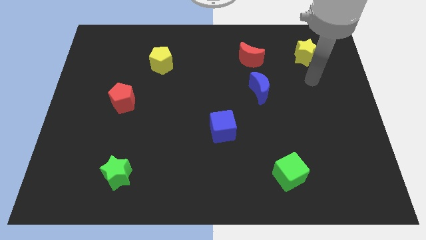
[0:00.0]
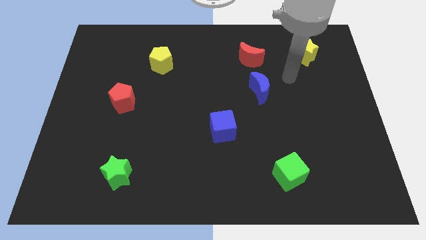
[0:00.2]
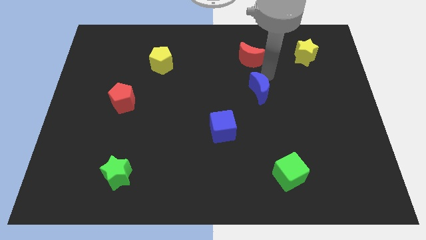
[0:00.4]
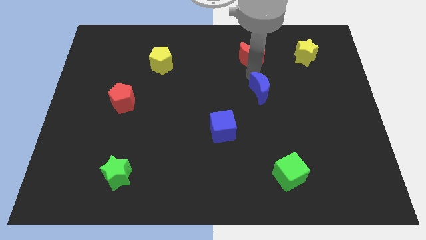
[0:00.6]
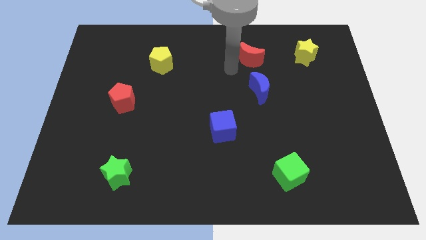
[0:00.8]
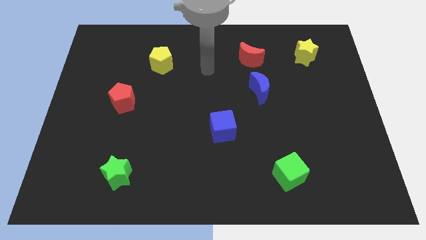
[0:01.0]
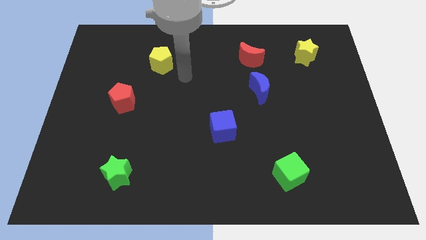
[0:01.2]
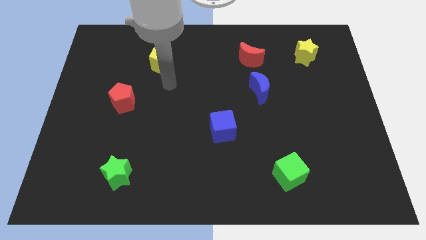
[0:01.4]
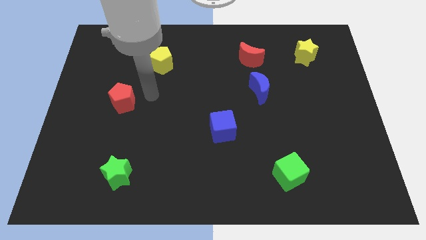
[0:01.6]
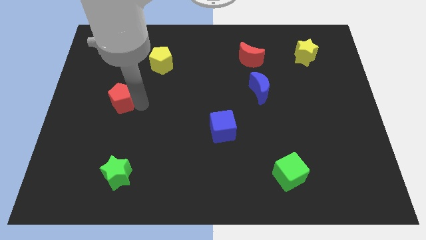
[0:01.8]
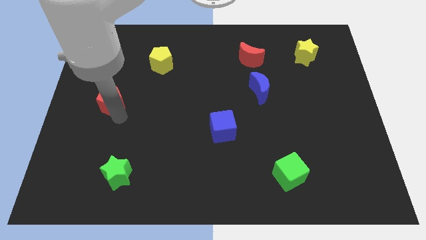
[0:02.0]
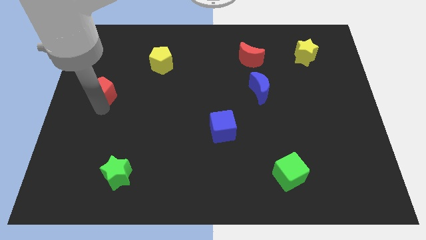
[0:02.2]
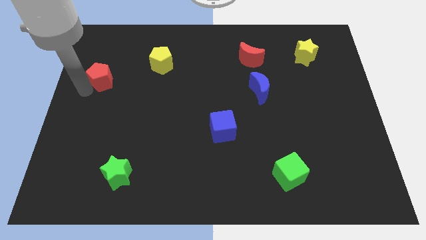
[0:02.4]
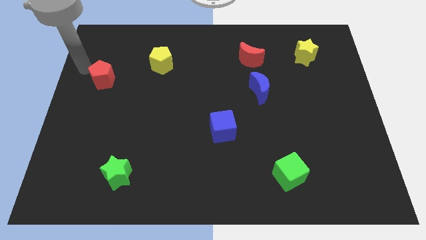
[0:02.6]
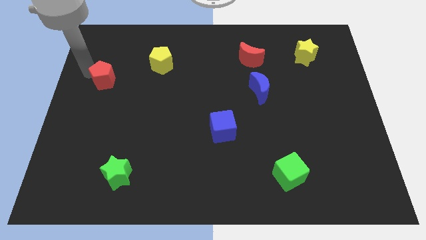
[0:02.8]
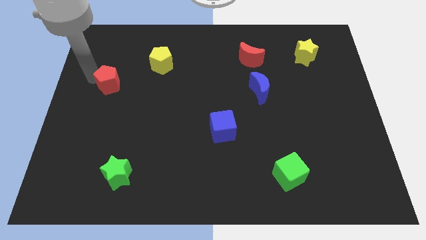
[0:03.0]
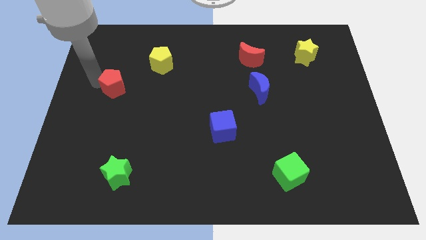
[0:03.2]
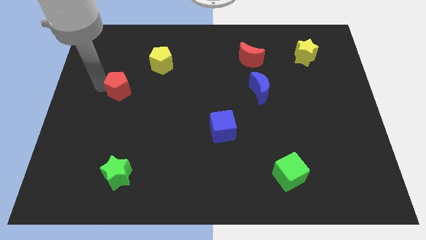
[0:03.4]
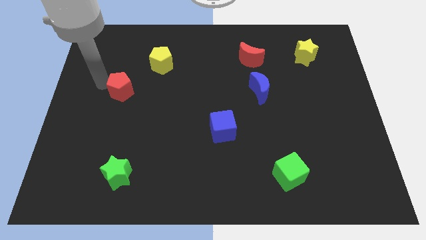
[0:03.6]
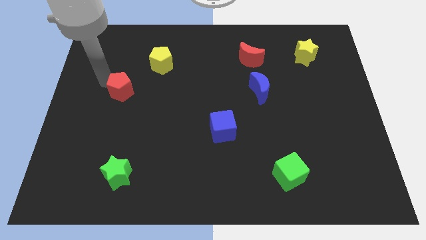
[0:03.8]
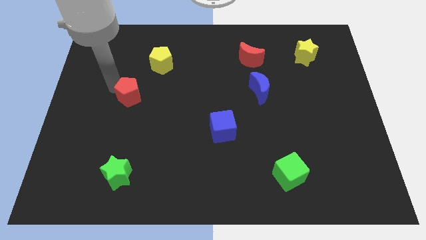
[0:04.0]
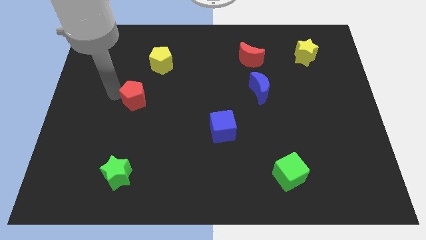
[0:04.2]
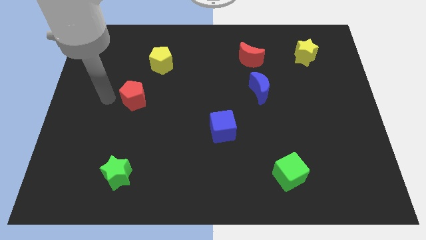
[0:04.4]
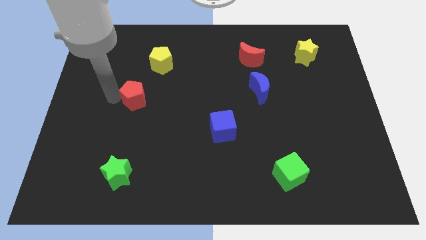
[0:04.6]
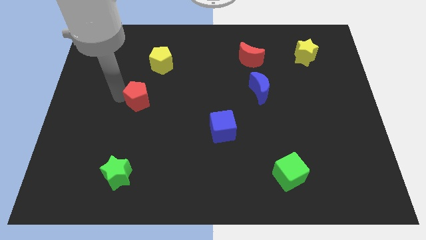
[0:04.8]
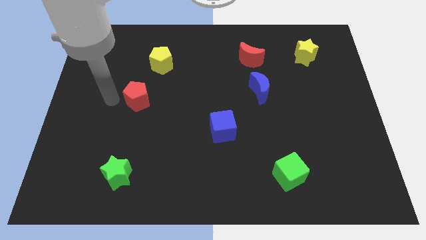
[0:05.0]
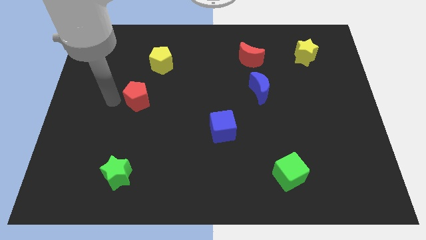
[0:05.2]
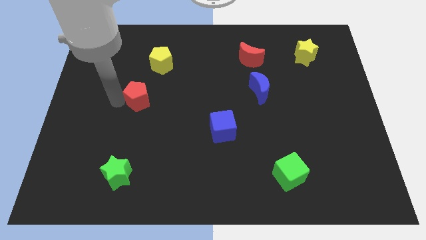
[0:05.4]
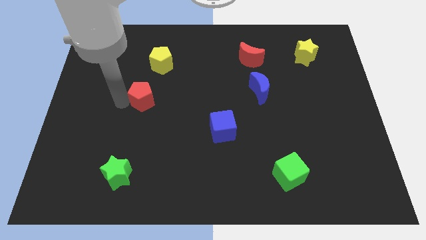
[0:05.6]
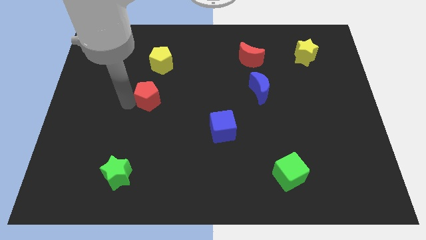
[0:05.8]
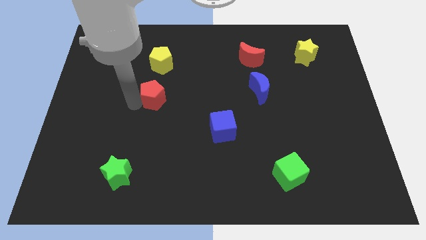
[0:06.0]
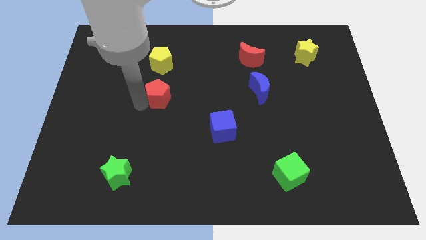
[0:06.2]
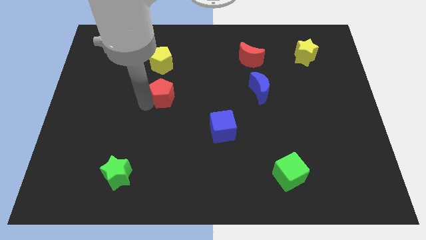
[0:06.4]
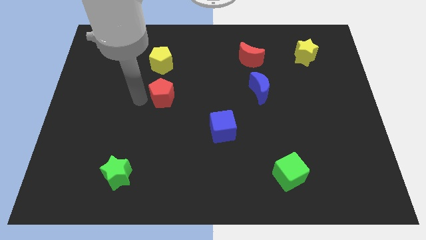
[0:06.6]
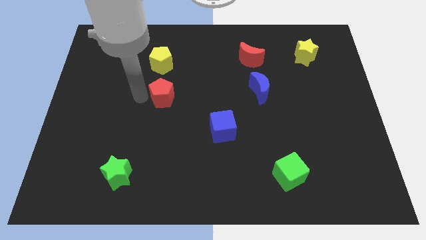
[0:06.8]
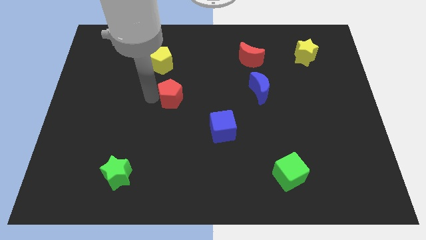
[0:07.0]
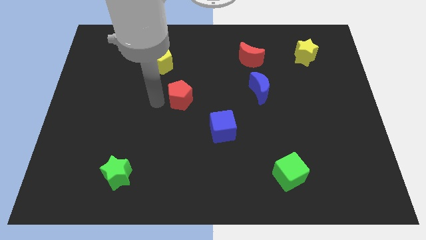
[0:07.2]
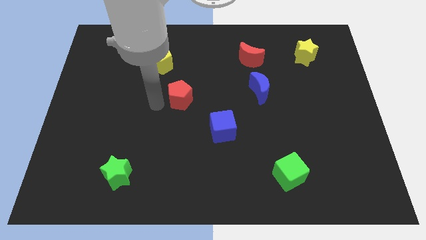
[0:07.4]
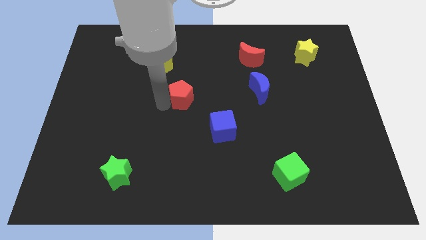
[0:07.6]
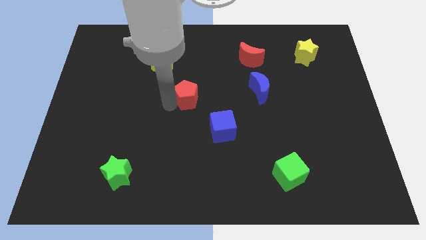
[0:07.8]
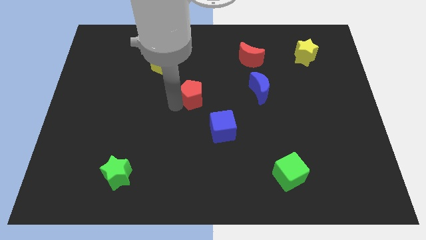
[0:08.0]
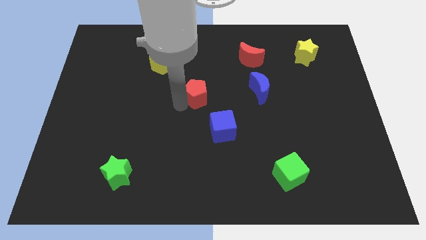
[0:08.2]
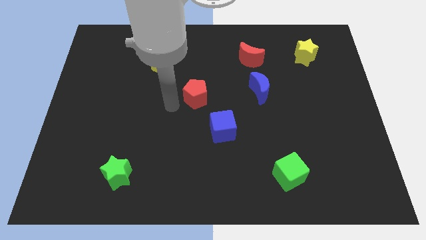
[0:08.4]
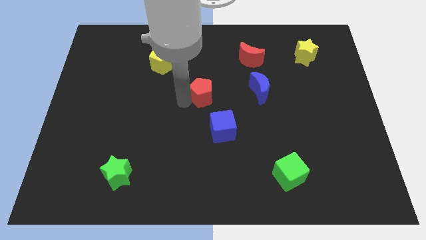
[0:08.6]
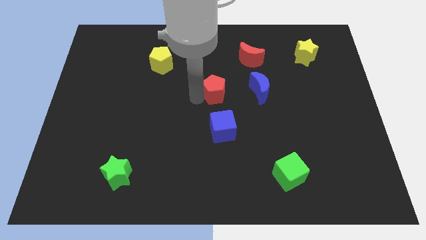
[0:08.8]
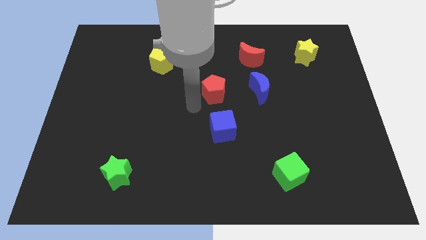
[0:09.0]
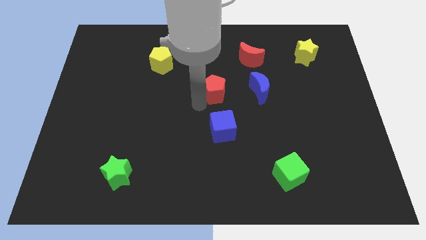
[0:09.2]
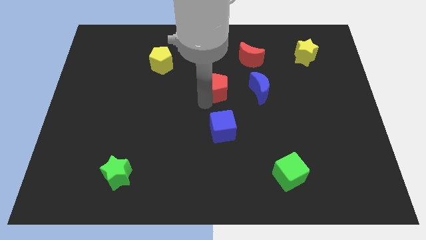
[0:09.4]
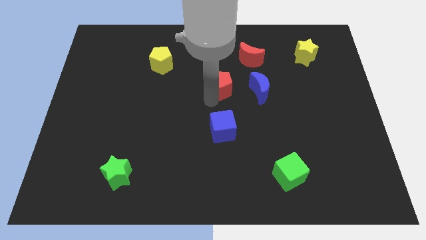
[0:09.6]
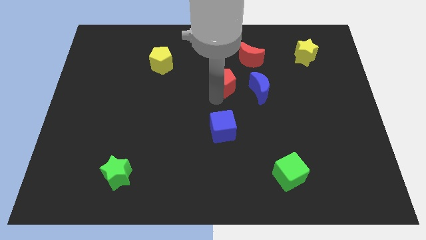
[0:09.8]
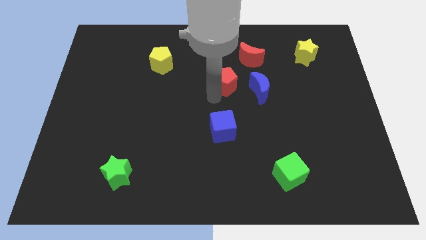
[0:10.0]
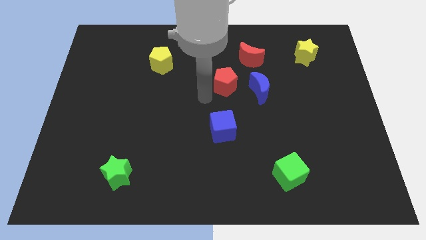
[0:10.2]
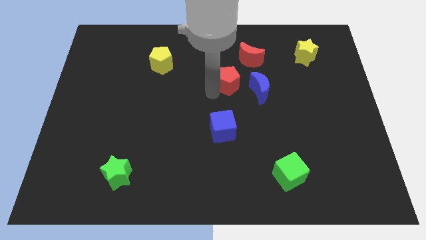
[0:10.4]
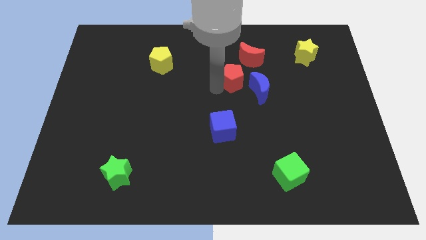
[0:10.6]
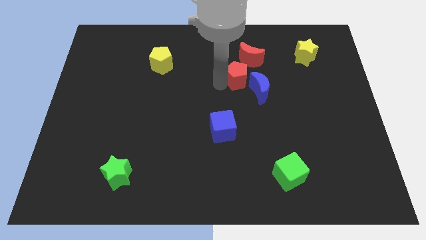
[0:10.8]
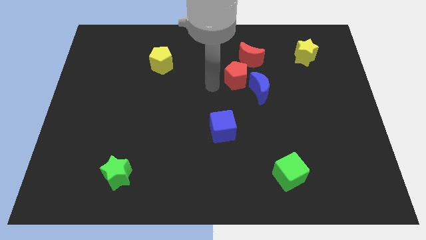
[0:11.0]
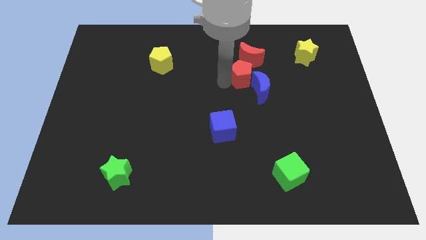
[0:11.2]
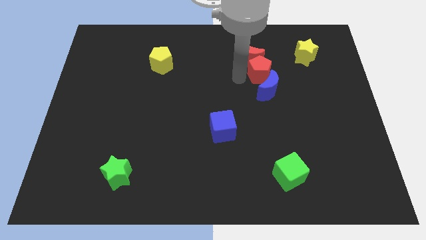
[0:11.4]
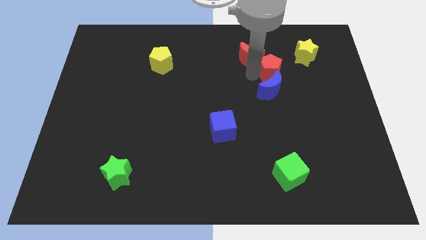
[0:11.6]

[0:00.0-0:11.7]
slide the red pentagon to the bottom left side of the yellow star

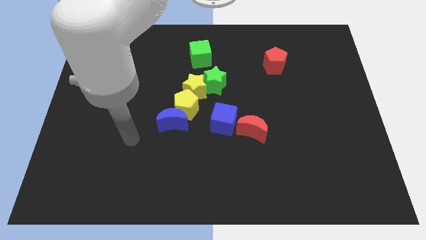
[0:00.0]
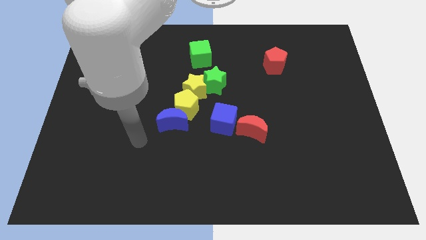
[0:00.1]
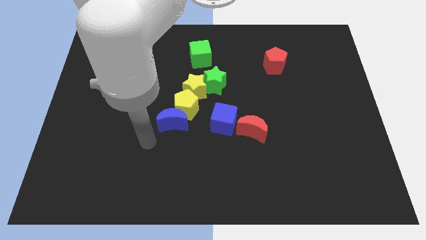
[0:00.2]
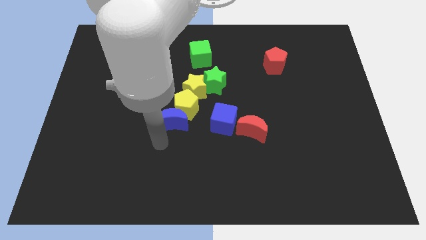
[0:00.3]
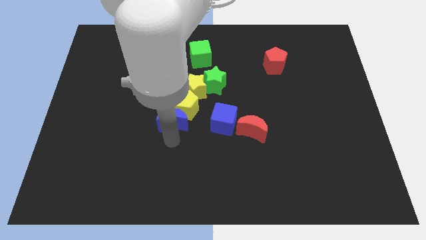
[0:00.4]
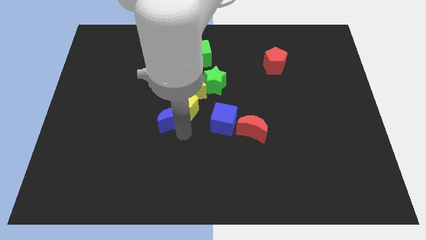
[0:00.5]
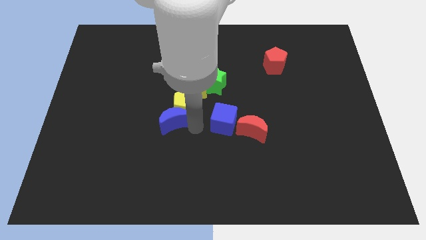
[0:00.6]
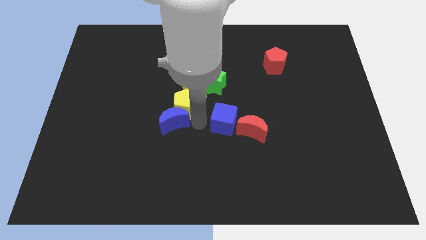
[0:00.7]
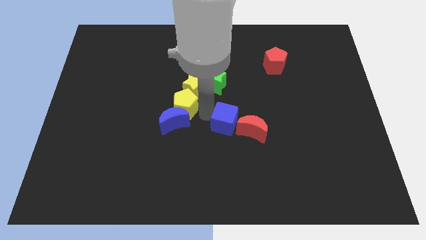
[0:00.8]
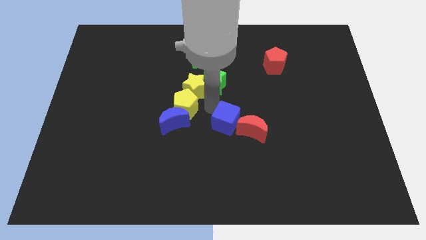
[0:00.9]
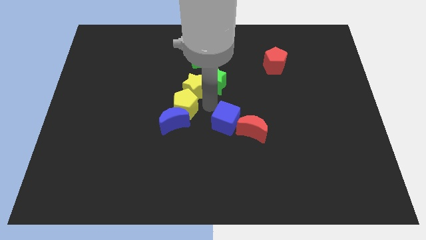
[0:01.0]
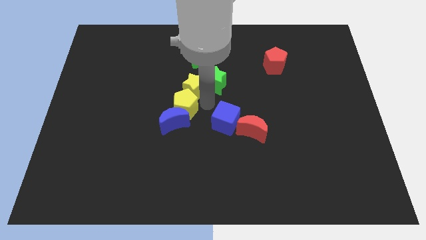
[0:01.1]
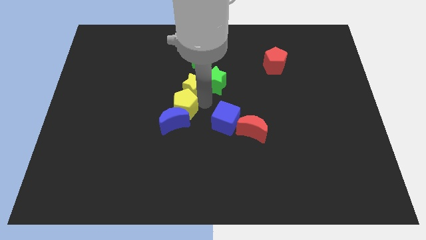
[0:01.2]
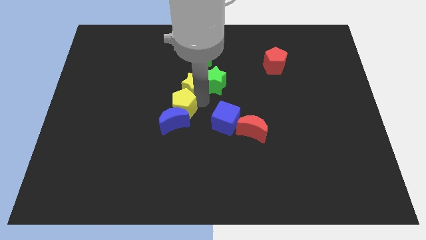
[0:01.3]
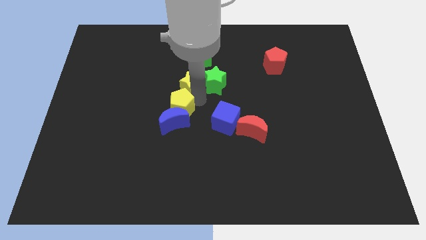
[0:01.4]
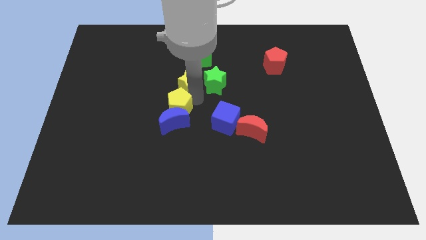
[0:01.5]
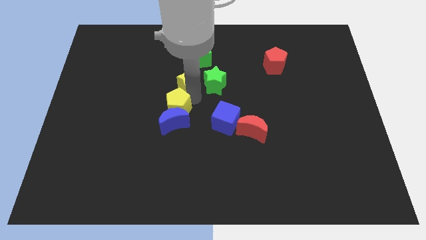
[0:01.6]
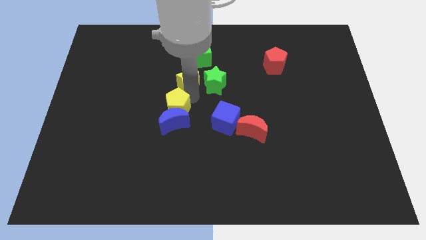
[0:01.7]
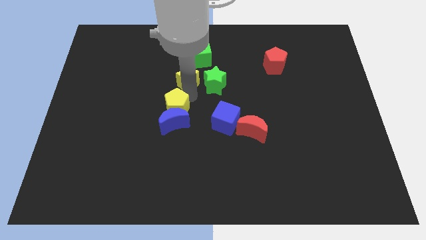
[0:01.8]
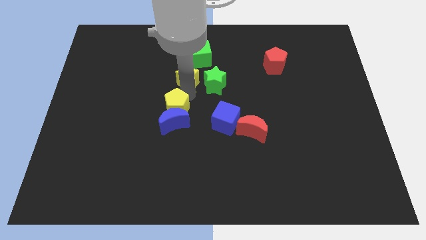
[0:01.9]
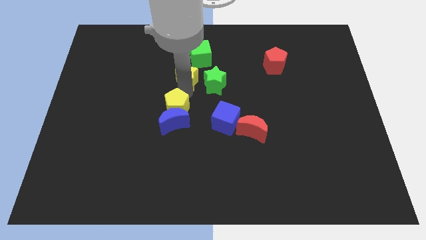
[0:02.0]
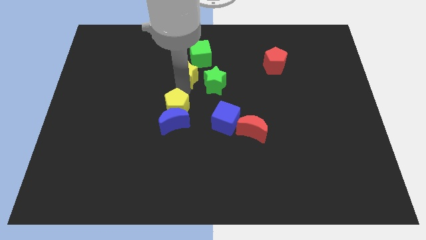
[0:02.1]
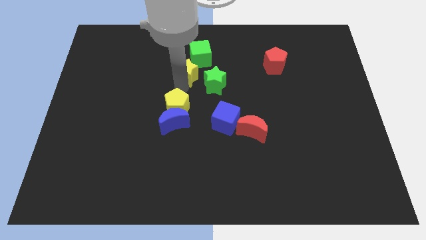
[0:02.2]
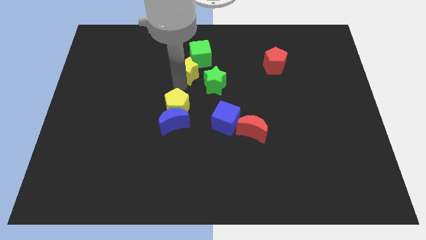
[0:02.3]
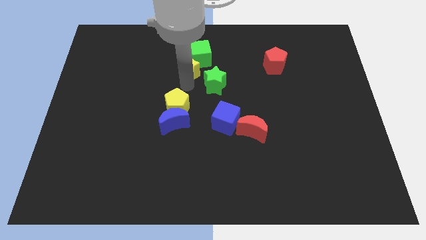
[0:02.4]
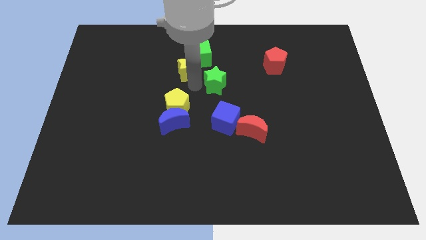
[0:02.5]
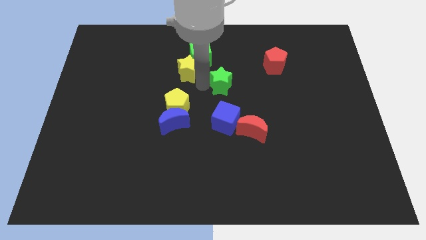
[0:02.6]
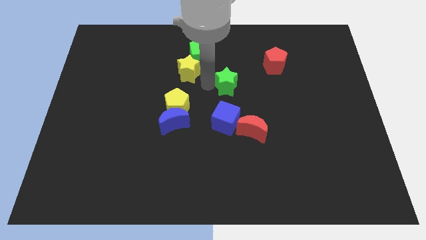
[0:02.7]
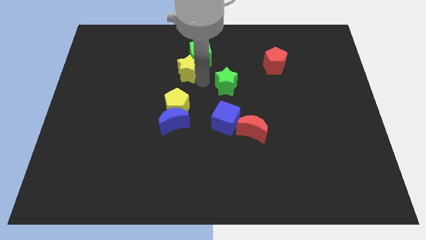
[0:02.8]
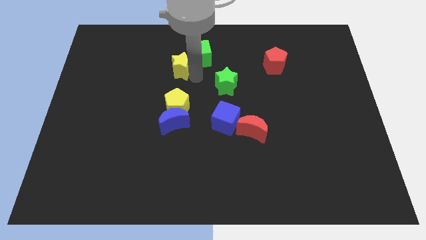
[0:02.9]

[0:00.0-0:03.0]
put the yellow star to the left of the green cube
